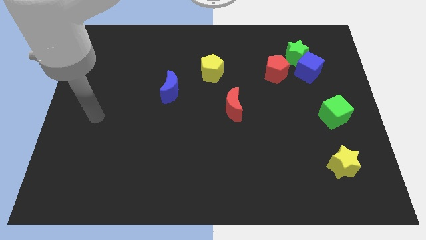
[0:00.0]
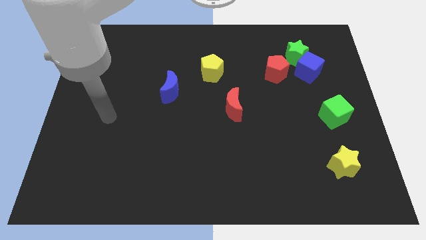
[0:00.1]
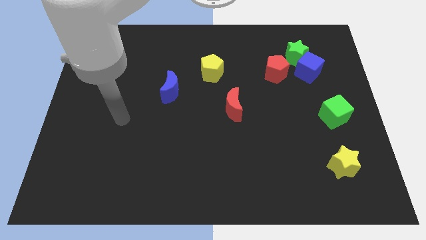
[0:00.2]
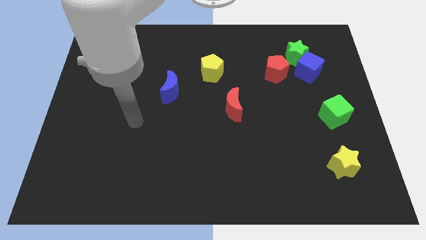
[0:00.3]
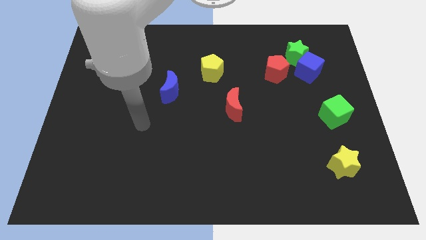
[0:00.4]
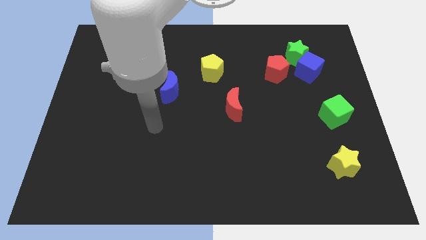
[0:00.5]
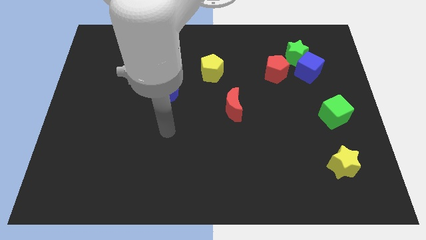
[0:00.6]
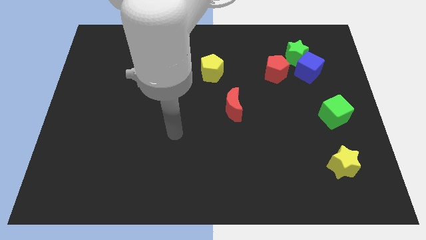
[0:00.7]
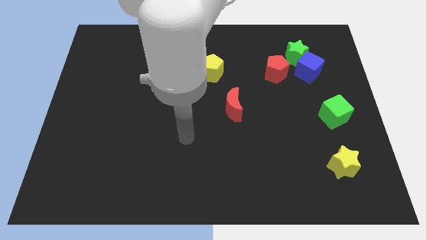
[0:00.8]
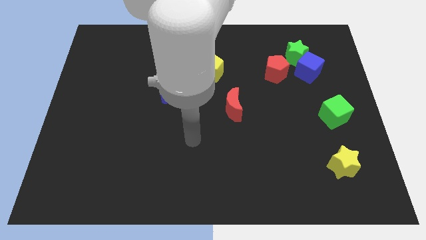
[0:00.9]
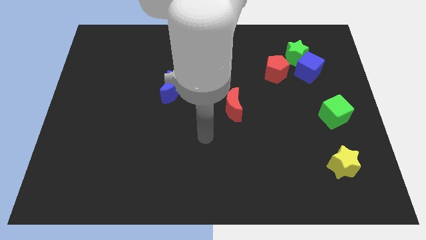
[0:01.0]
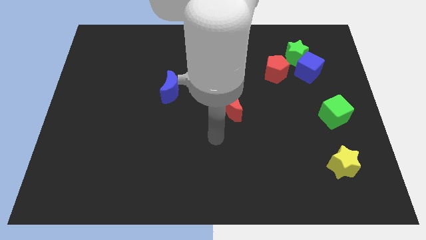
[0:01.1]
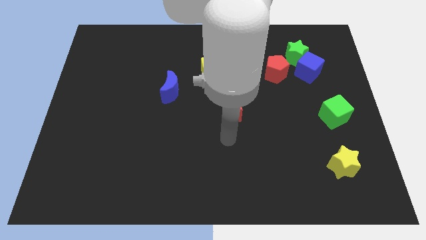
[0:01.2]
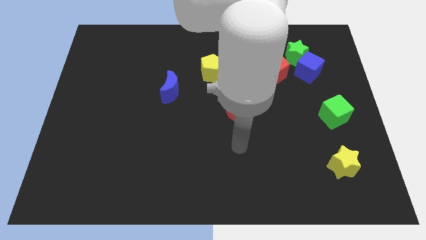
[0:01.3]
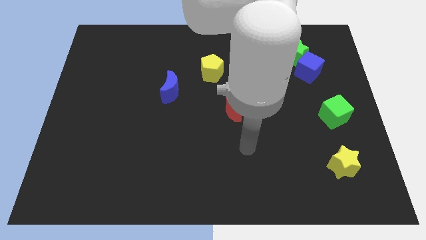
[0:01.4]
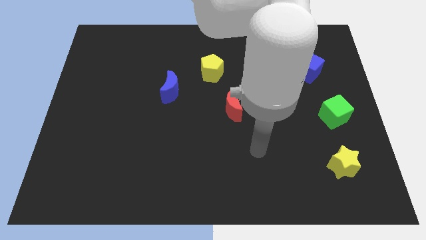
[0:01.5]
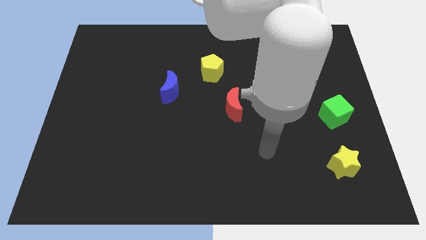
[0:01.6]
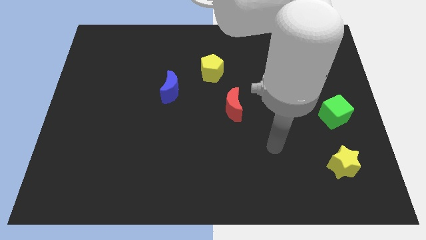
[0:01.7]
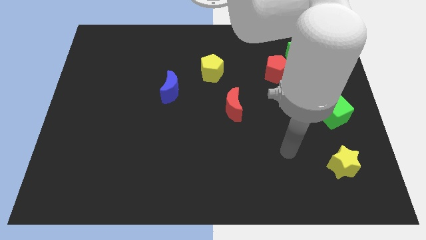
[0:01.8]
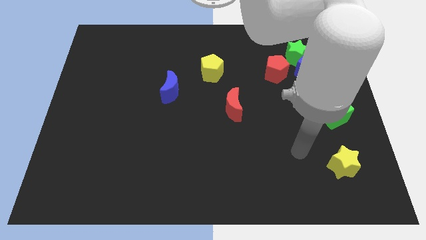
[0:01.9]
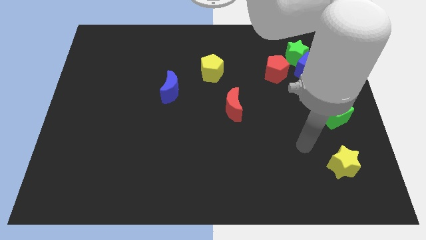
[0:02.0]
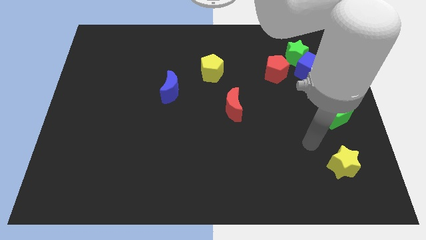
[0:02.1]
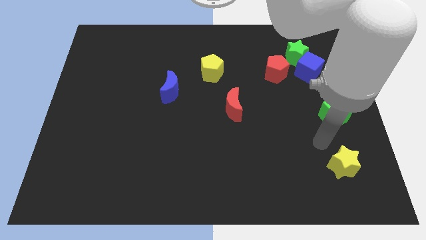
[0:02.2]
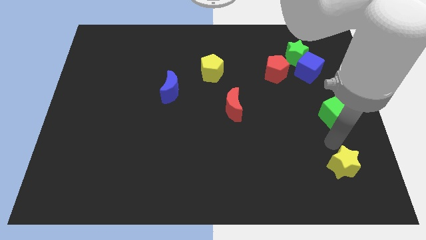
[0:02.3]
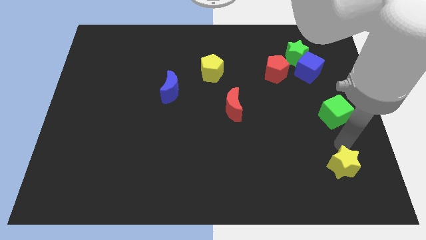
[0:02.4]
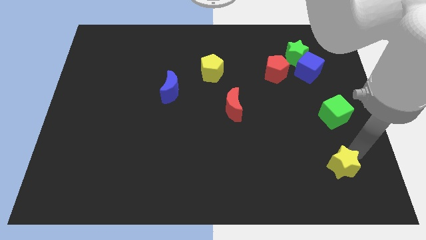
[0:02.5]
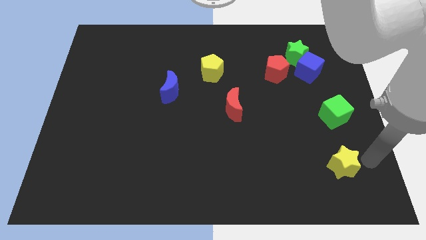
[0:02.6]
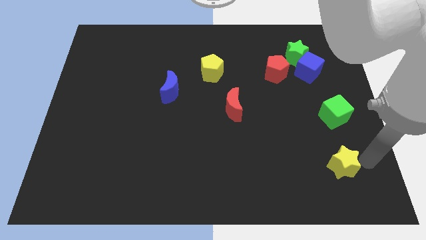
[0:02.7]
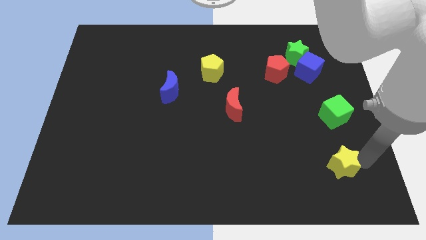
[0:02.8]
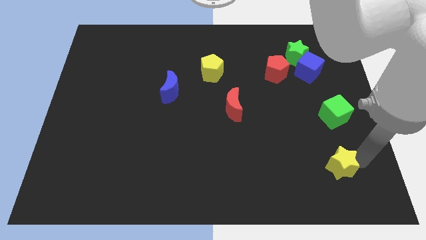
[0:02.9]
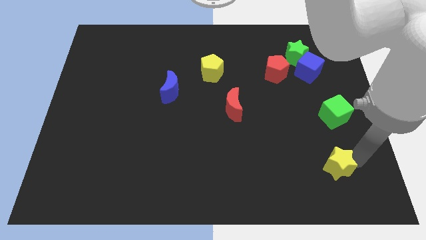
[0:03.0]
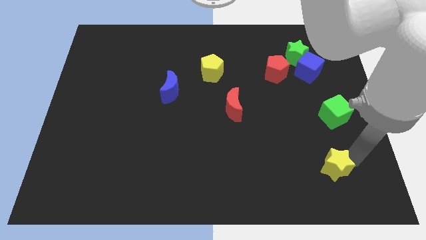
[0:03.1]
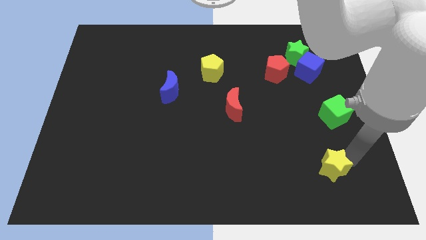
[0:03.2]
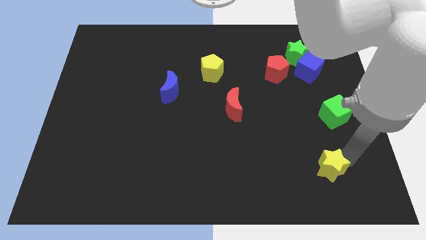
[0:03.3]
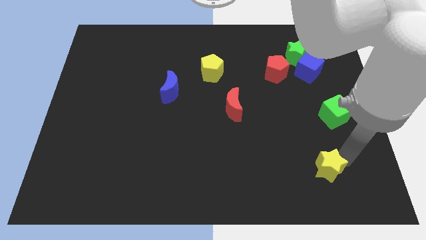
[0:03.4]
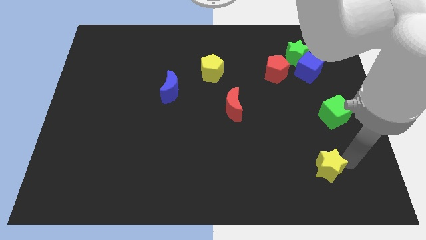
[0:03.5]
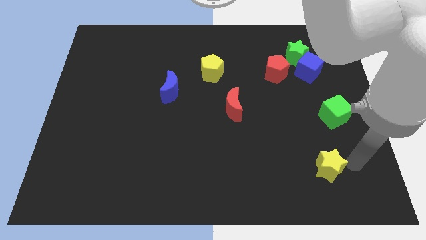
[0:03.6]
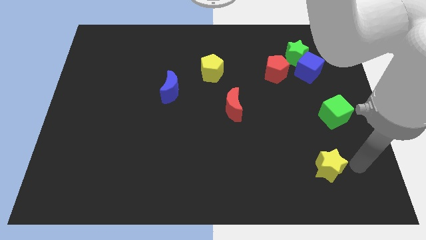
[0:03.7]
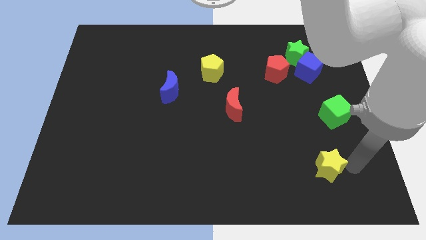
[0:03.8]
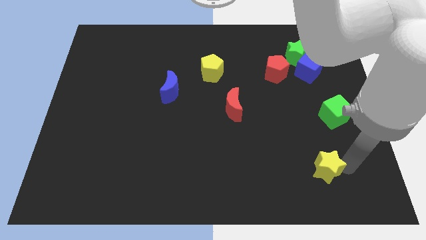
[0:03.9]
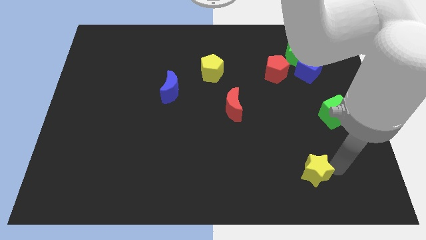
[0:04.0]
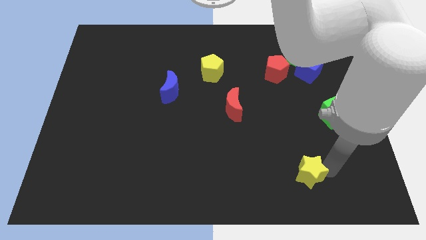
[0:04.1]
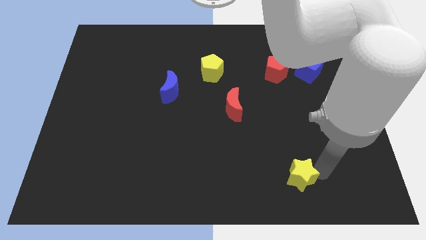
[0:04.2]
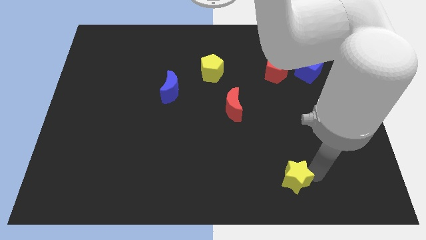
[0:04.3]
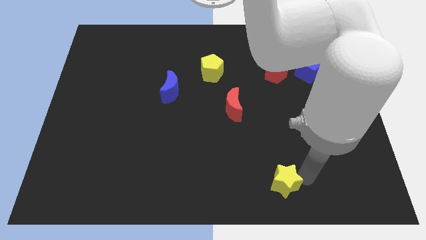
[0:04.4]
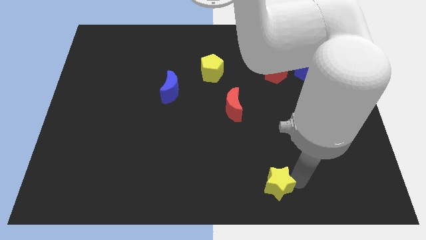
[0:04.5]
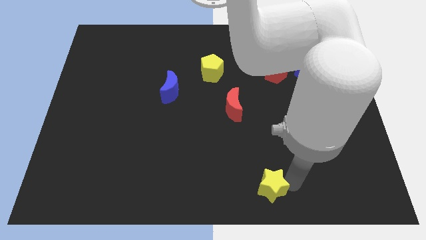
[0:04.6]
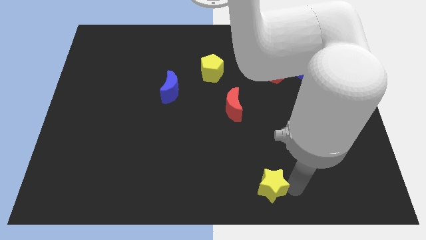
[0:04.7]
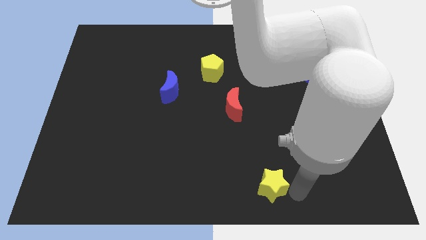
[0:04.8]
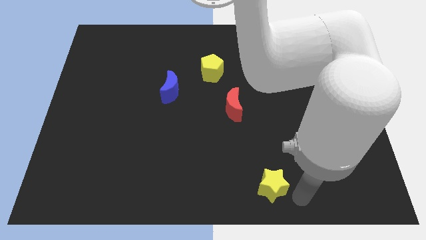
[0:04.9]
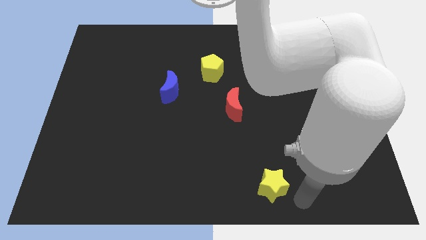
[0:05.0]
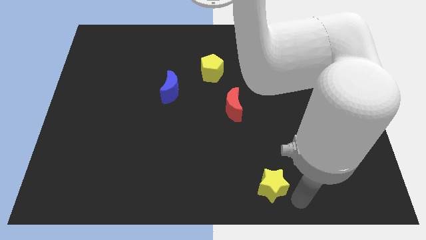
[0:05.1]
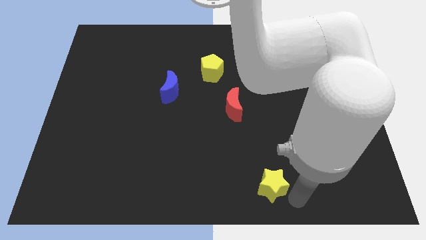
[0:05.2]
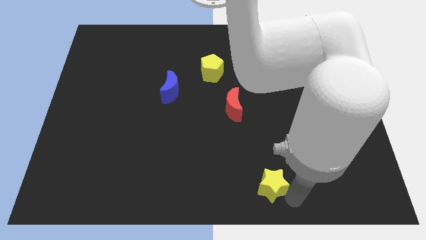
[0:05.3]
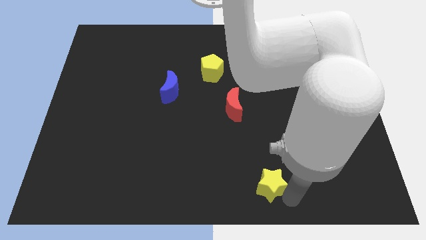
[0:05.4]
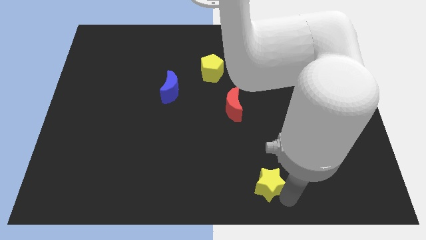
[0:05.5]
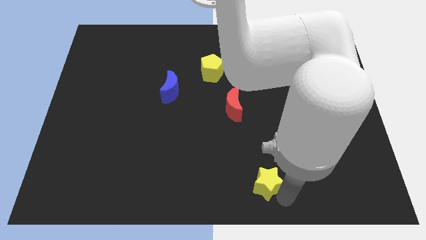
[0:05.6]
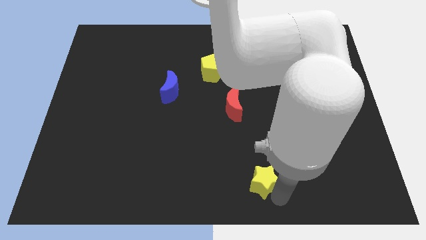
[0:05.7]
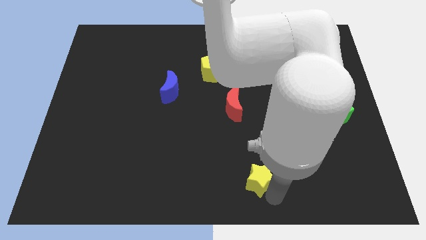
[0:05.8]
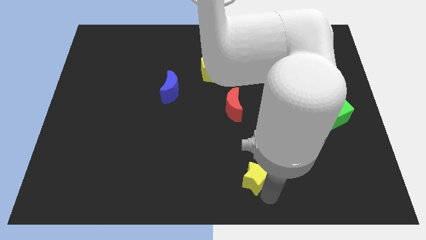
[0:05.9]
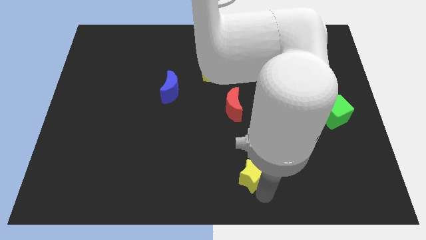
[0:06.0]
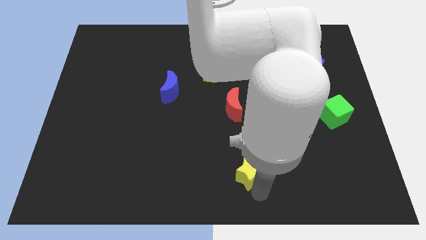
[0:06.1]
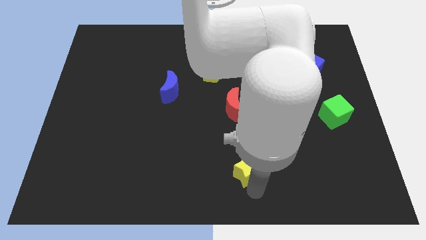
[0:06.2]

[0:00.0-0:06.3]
push the yellow star to the left

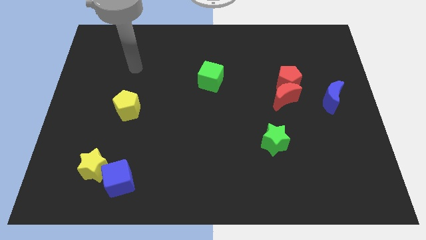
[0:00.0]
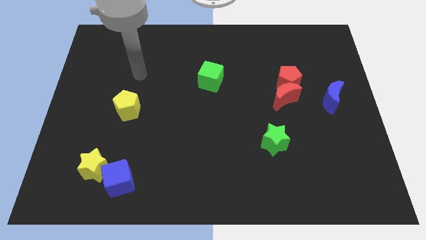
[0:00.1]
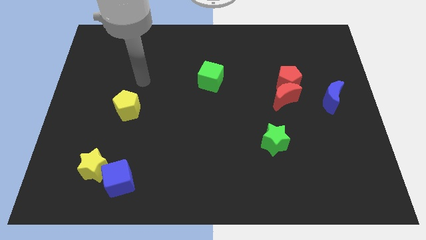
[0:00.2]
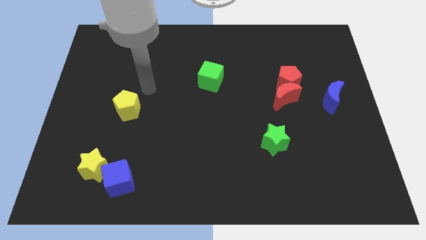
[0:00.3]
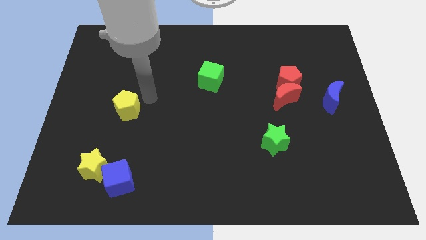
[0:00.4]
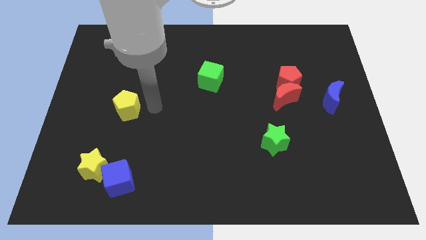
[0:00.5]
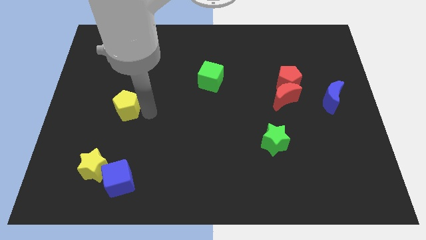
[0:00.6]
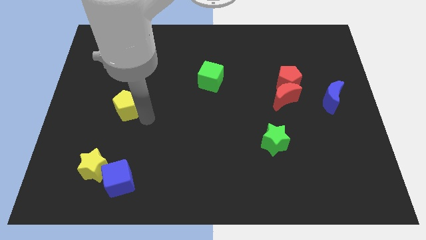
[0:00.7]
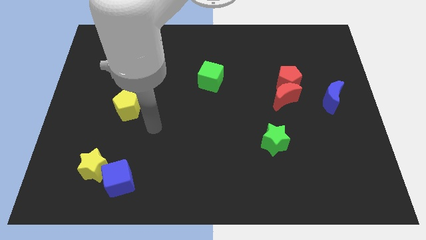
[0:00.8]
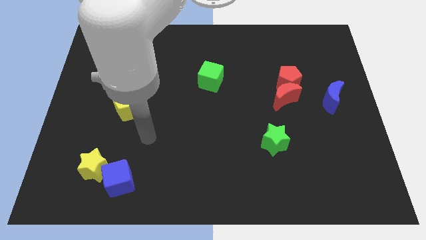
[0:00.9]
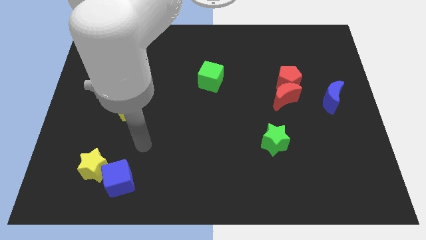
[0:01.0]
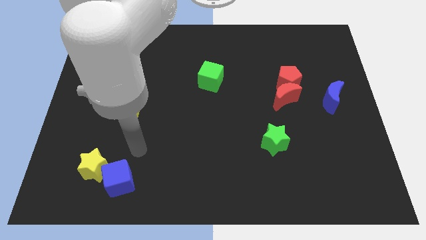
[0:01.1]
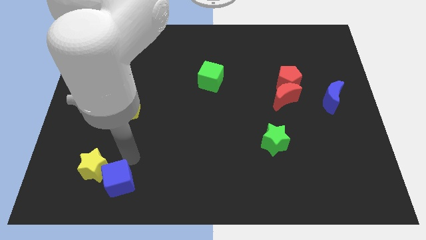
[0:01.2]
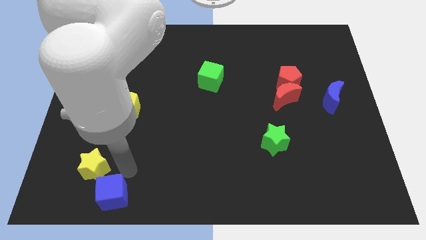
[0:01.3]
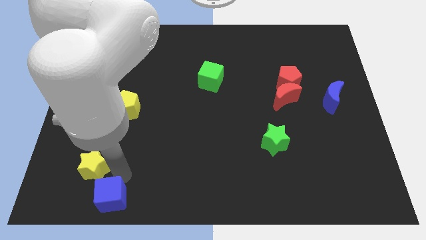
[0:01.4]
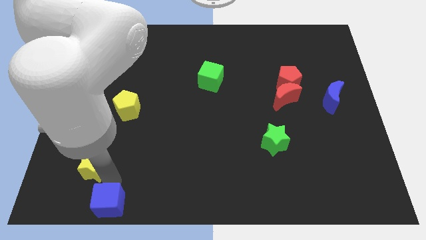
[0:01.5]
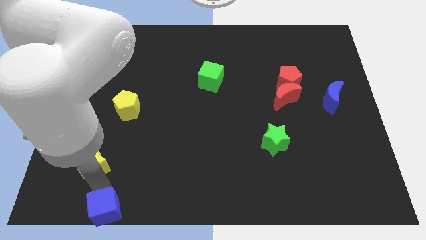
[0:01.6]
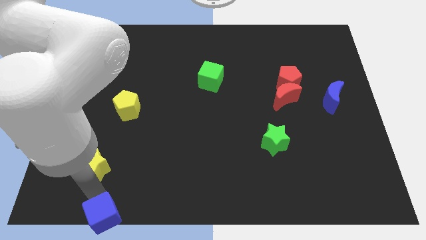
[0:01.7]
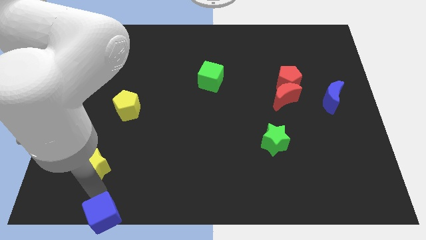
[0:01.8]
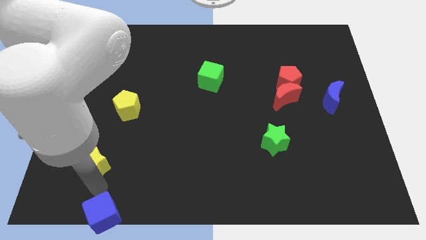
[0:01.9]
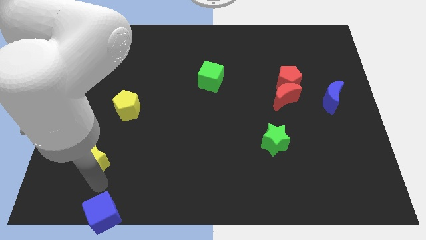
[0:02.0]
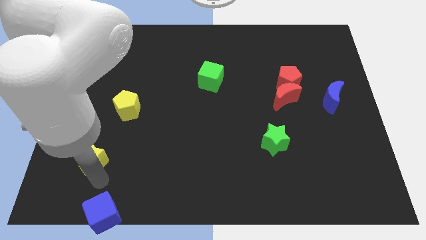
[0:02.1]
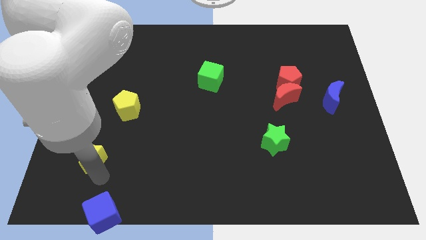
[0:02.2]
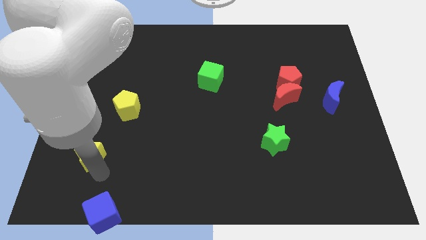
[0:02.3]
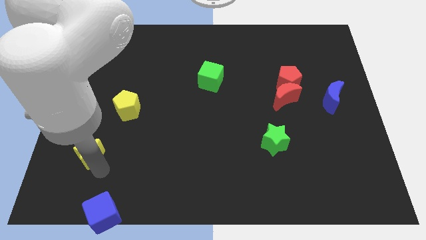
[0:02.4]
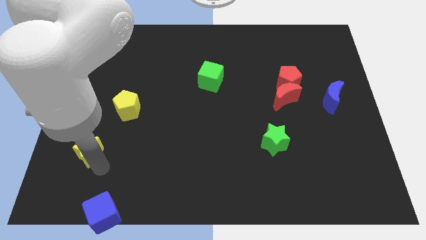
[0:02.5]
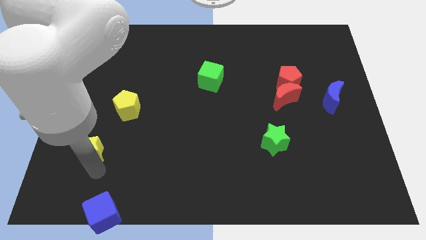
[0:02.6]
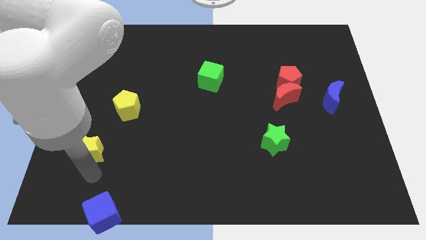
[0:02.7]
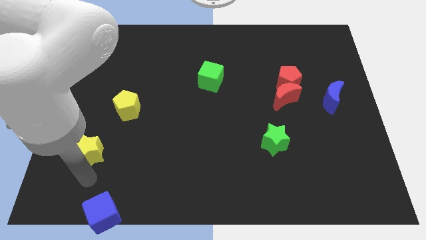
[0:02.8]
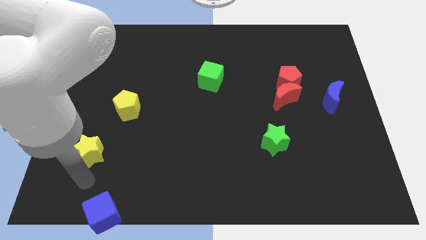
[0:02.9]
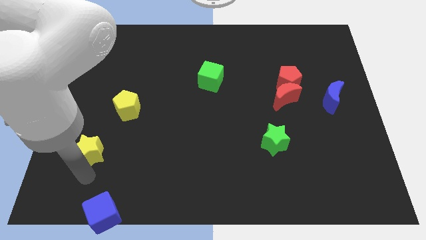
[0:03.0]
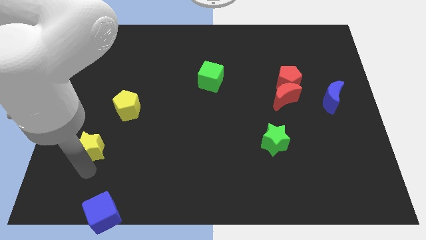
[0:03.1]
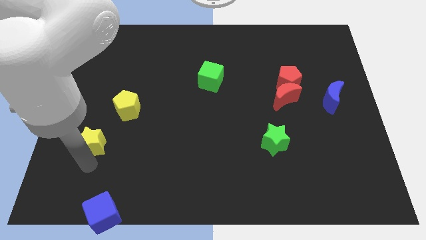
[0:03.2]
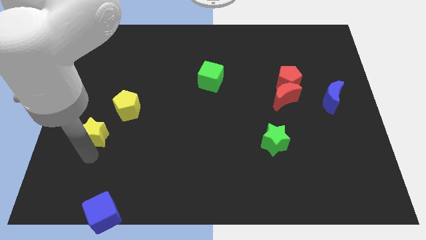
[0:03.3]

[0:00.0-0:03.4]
slide the yellow star a little bit up
